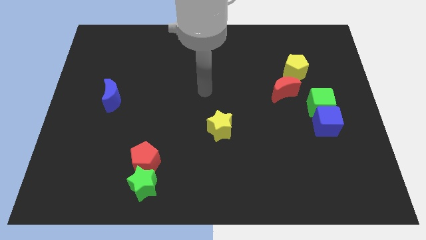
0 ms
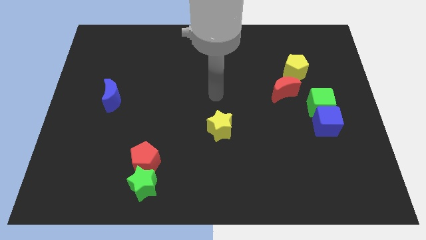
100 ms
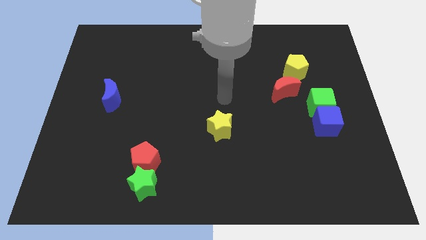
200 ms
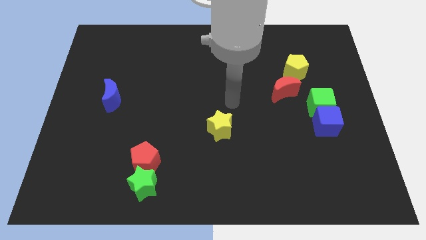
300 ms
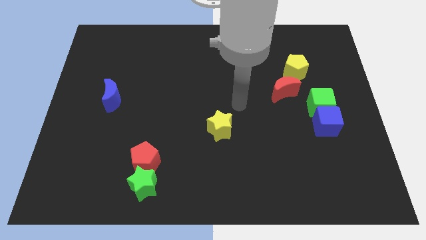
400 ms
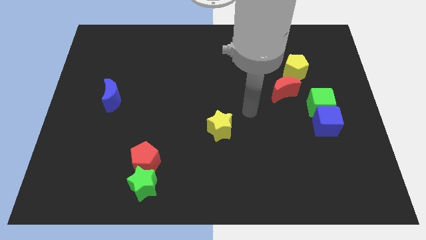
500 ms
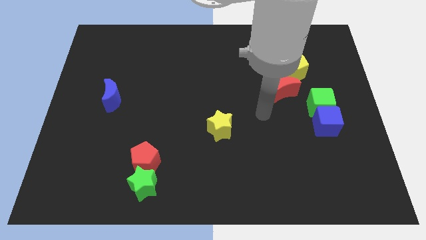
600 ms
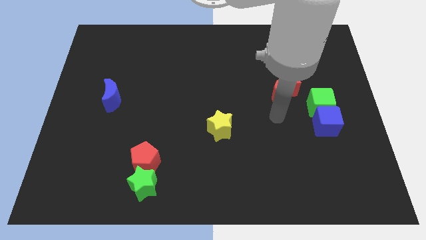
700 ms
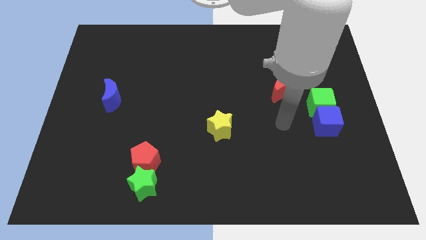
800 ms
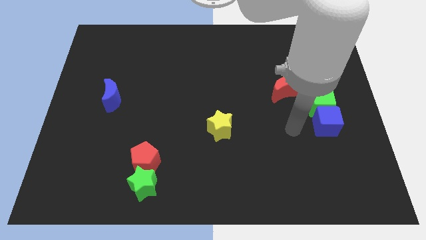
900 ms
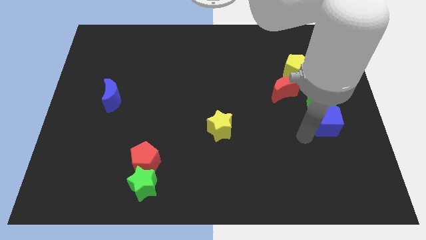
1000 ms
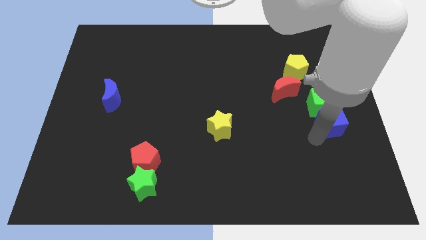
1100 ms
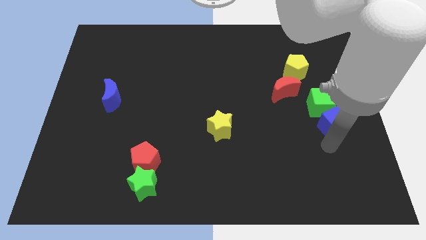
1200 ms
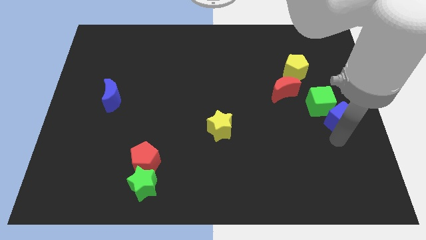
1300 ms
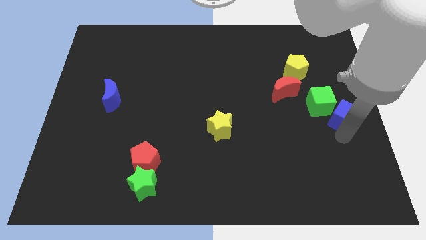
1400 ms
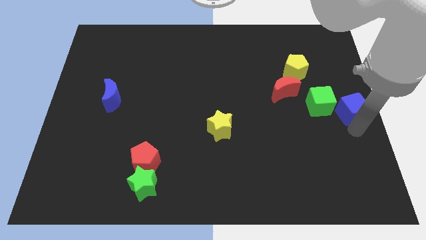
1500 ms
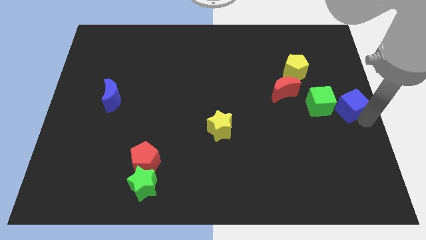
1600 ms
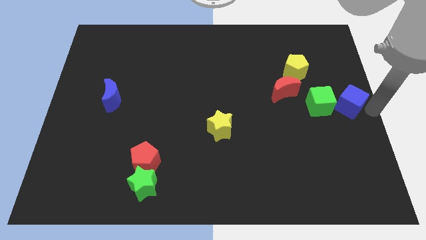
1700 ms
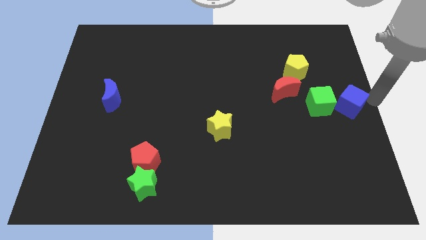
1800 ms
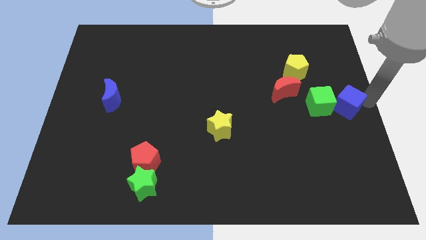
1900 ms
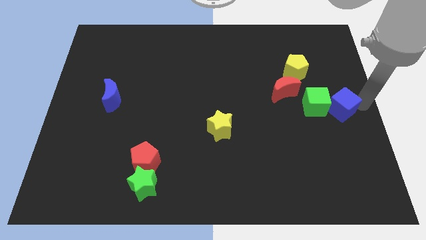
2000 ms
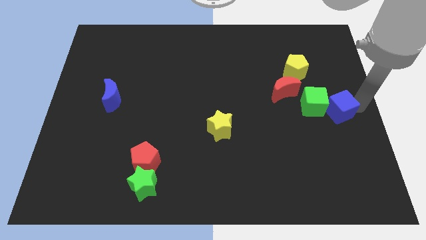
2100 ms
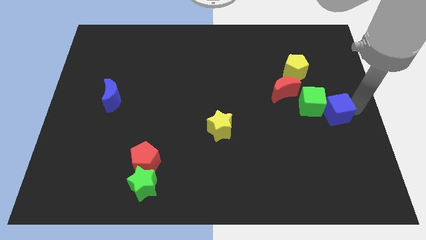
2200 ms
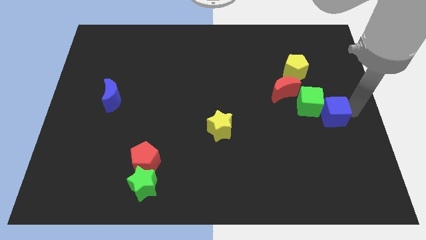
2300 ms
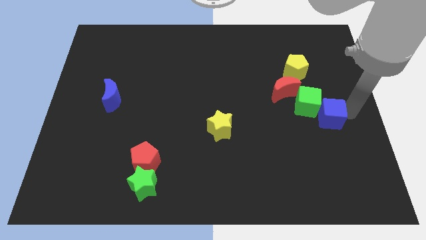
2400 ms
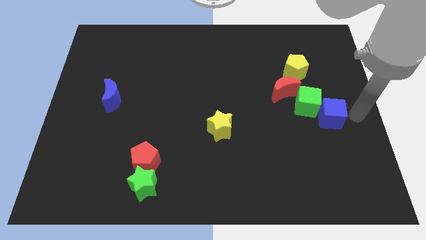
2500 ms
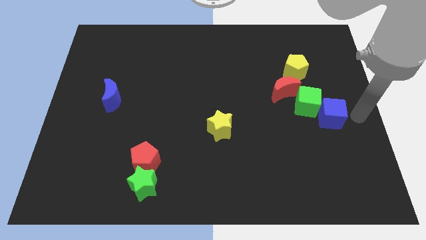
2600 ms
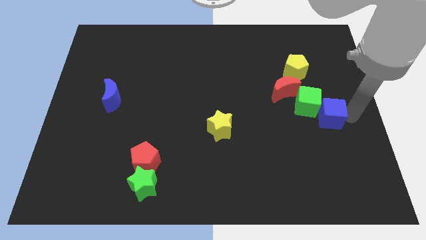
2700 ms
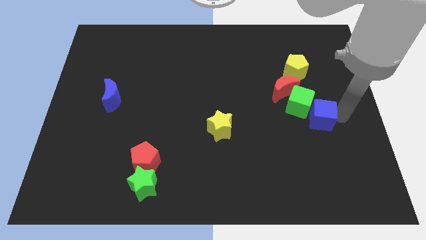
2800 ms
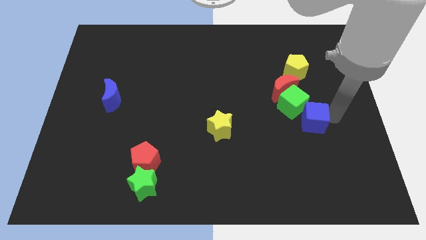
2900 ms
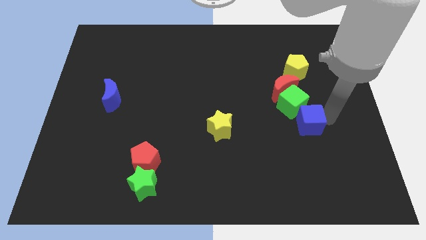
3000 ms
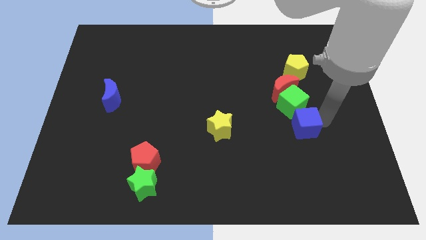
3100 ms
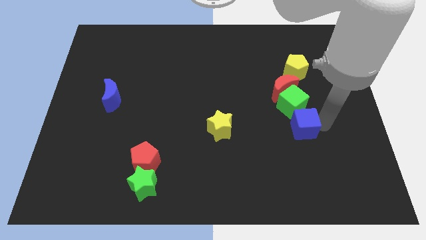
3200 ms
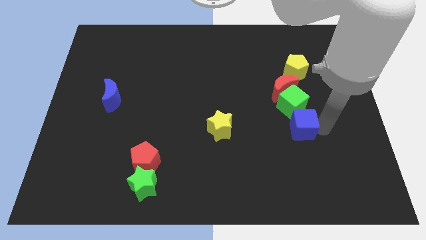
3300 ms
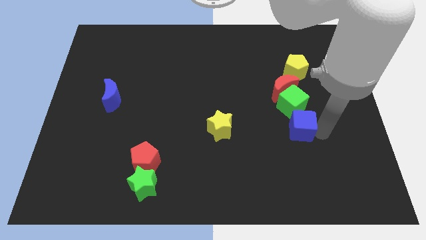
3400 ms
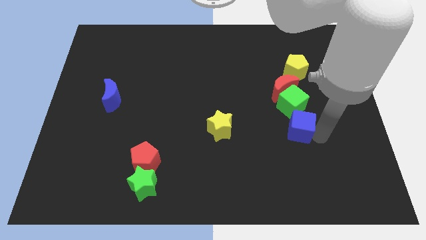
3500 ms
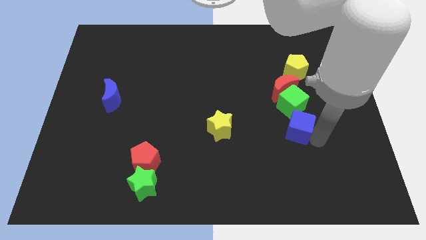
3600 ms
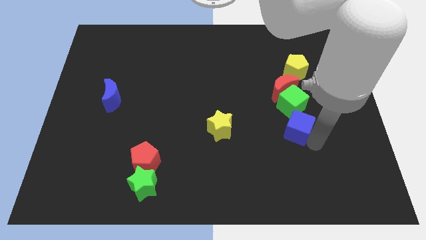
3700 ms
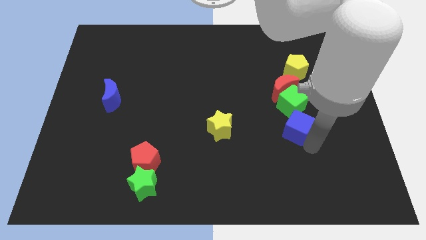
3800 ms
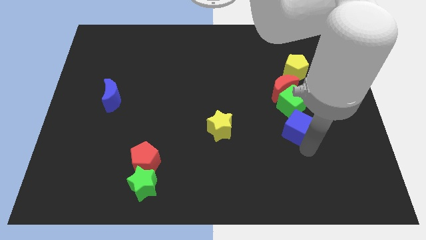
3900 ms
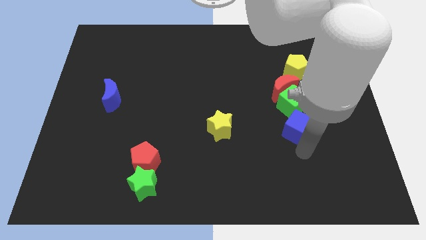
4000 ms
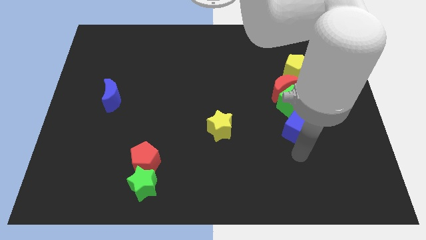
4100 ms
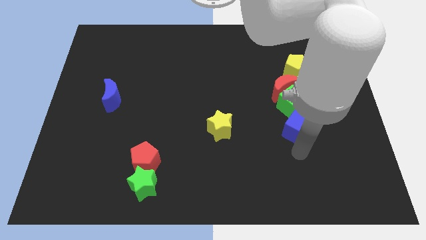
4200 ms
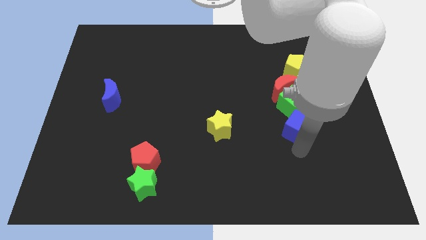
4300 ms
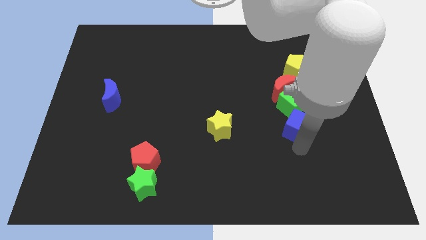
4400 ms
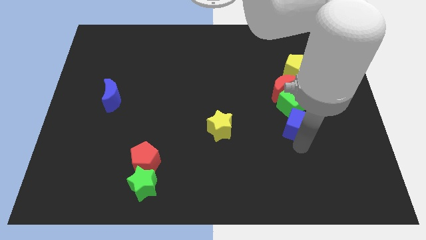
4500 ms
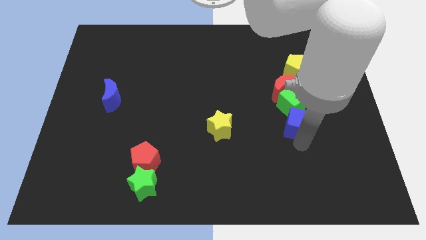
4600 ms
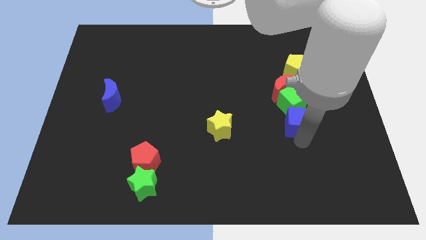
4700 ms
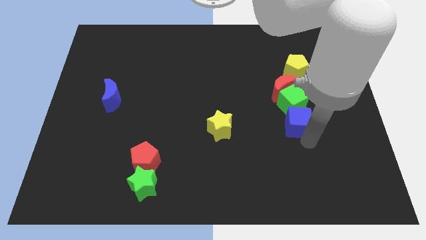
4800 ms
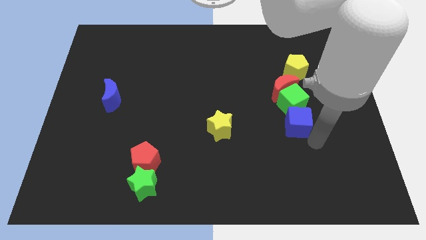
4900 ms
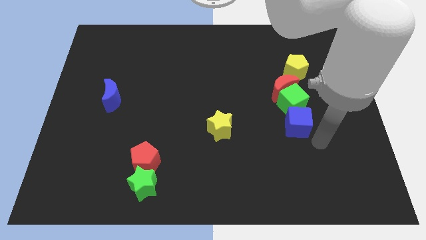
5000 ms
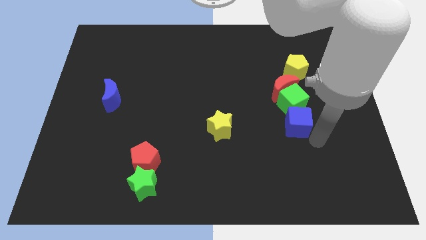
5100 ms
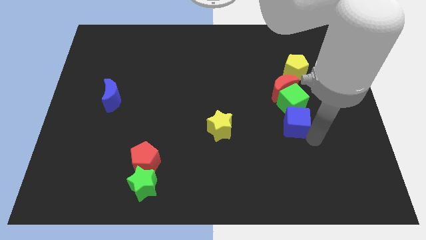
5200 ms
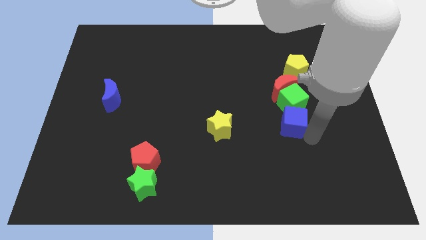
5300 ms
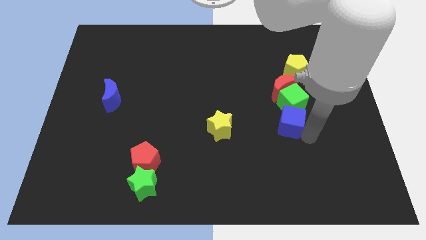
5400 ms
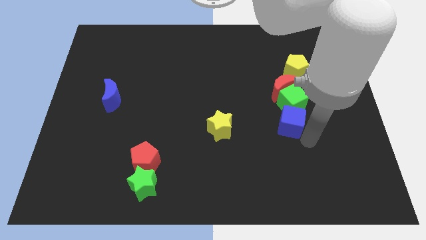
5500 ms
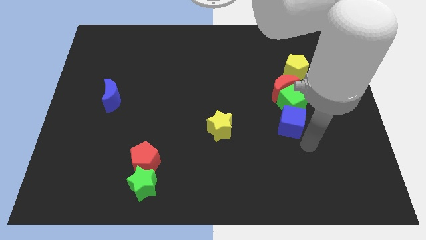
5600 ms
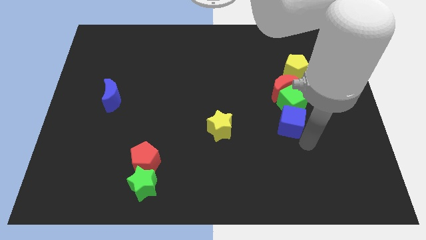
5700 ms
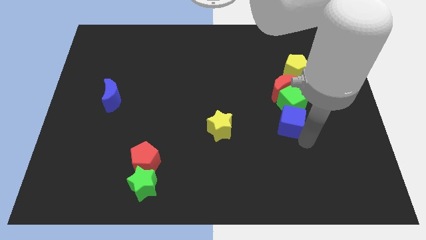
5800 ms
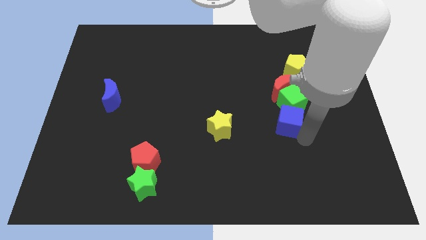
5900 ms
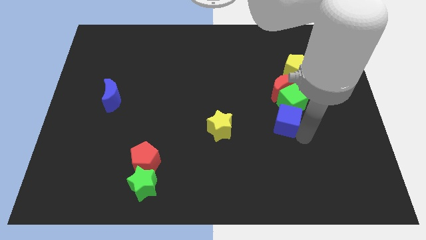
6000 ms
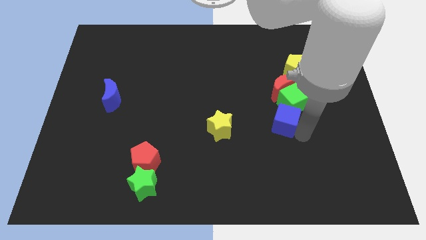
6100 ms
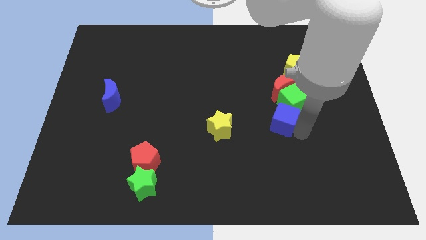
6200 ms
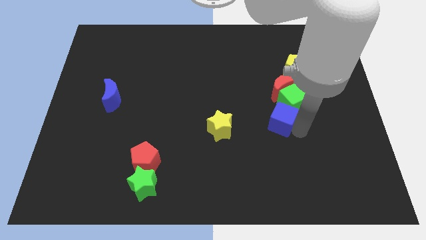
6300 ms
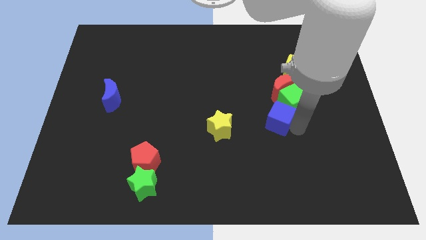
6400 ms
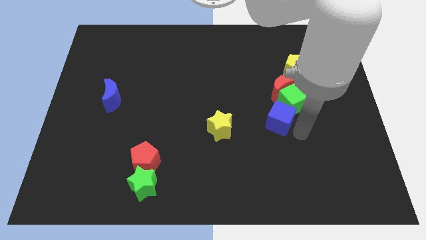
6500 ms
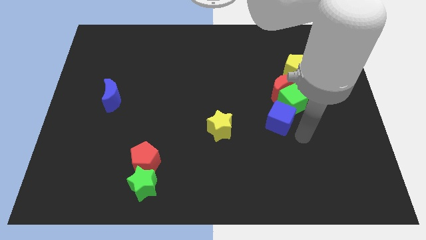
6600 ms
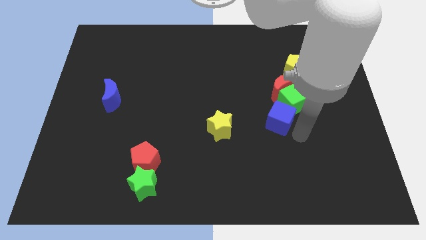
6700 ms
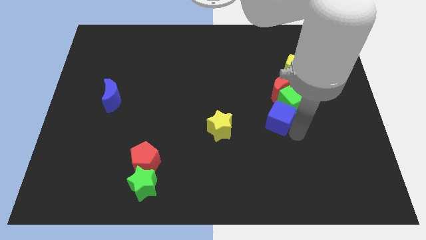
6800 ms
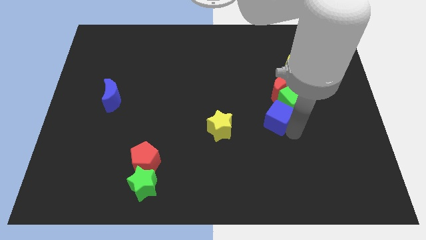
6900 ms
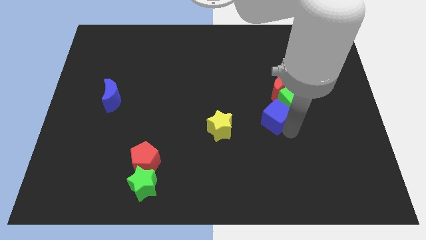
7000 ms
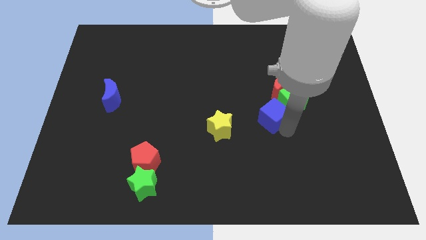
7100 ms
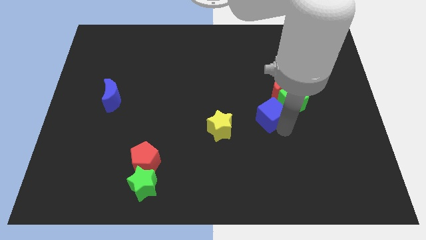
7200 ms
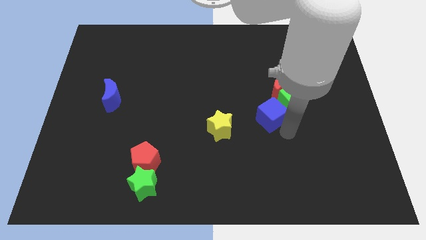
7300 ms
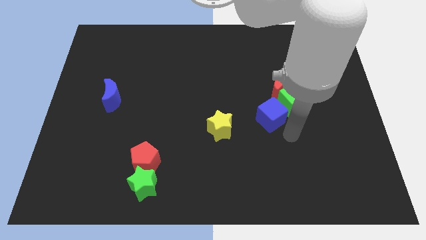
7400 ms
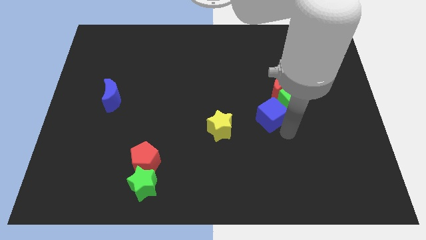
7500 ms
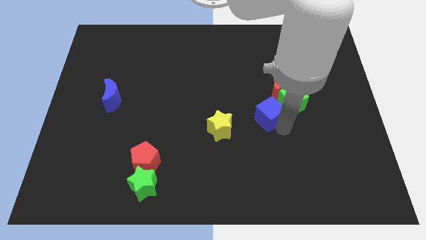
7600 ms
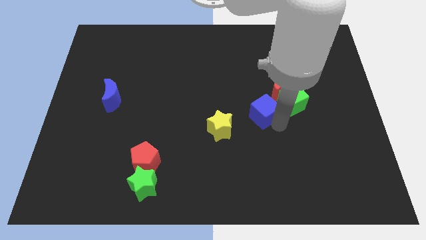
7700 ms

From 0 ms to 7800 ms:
slide the blue cube to the center
